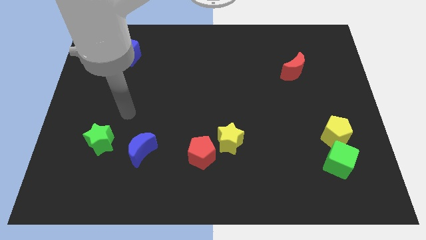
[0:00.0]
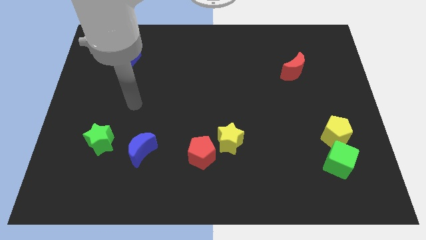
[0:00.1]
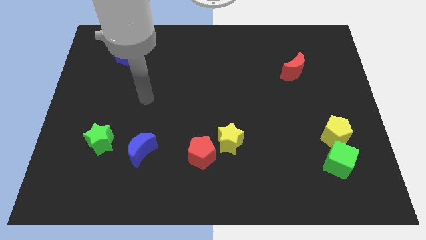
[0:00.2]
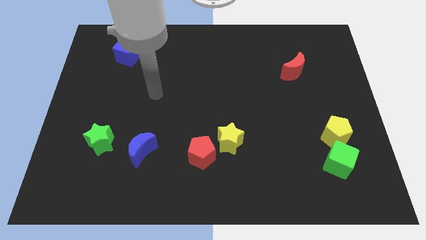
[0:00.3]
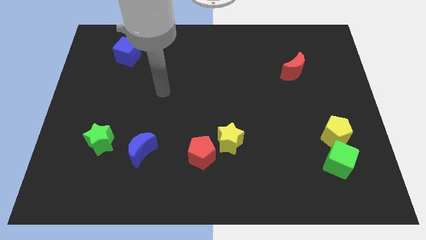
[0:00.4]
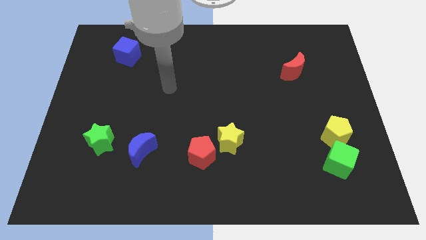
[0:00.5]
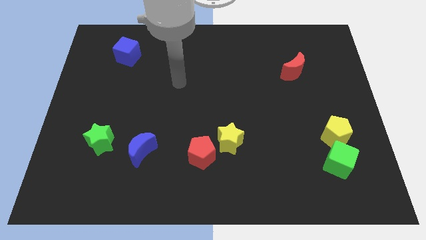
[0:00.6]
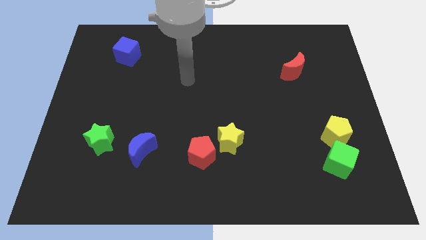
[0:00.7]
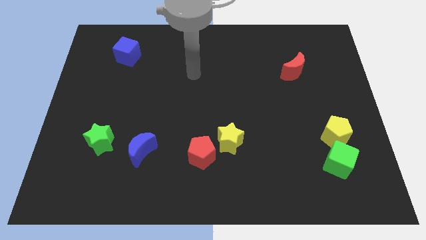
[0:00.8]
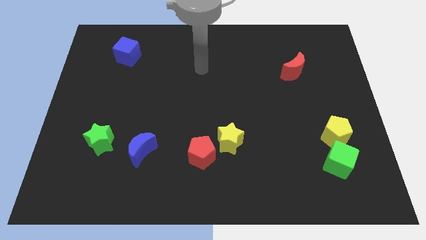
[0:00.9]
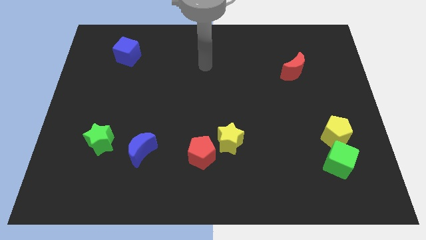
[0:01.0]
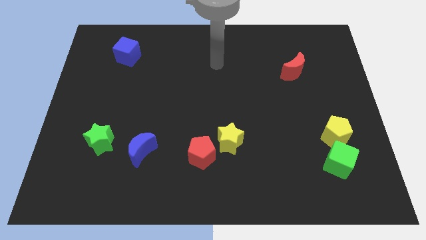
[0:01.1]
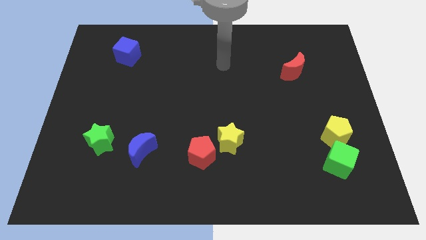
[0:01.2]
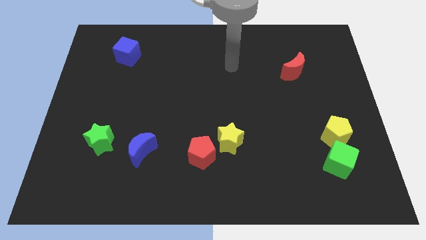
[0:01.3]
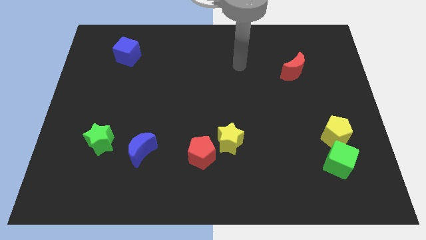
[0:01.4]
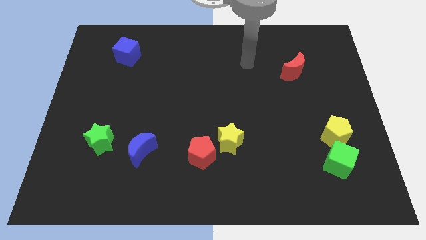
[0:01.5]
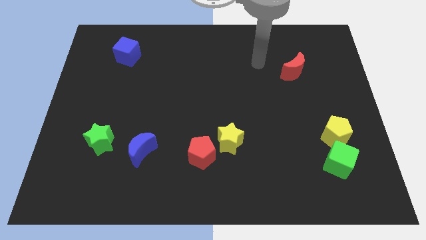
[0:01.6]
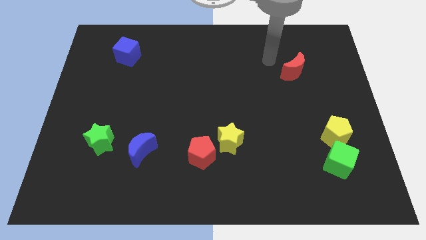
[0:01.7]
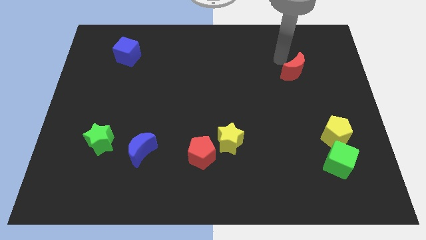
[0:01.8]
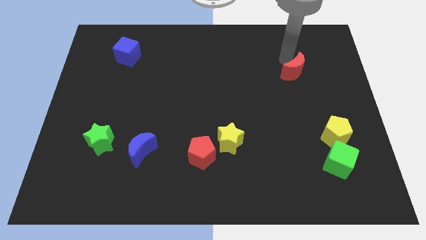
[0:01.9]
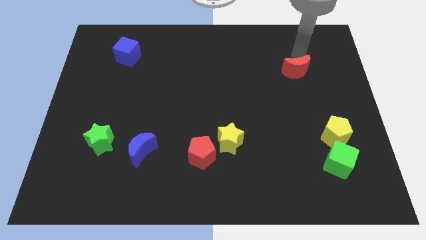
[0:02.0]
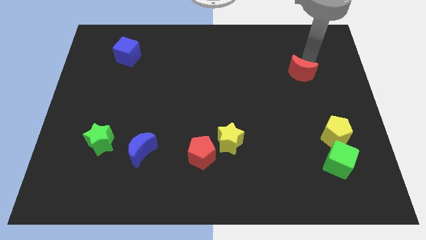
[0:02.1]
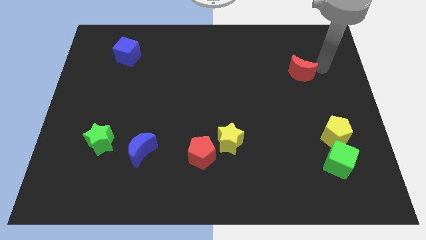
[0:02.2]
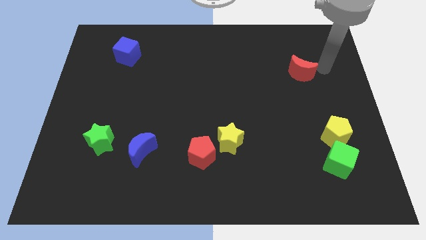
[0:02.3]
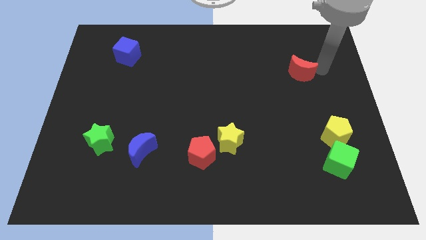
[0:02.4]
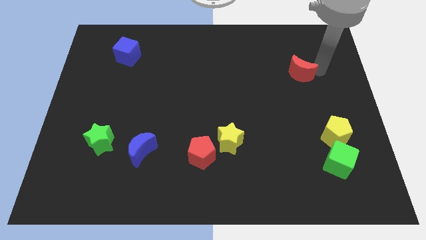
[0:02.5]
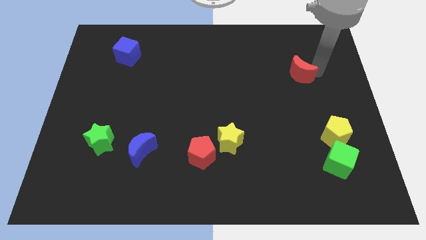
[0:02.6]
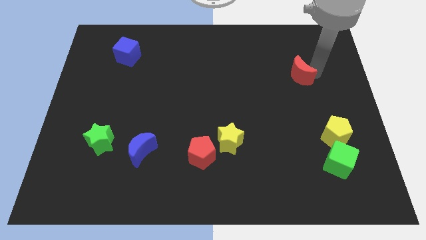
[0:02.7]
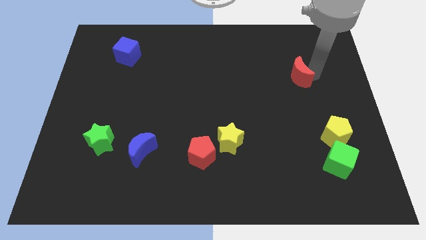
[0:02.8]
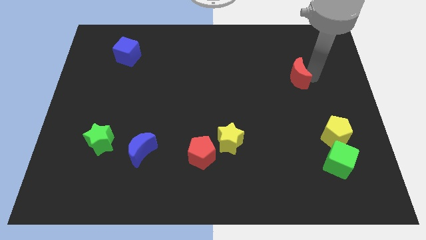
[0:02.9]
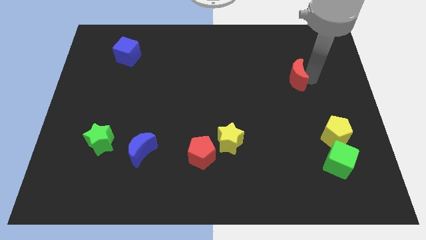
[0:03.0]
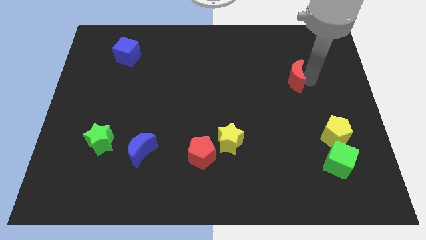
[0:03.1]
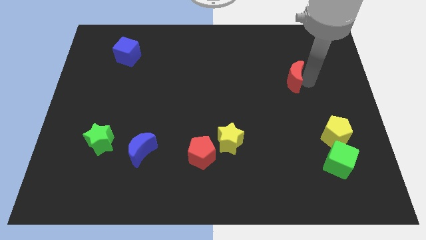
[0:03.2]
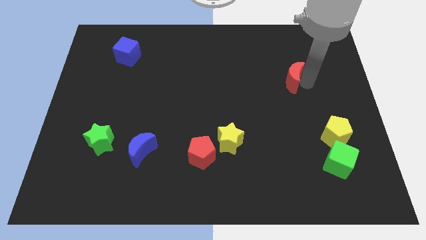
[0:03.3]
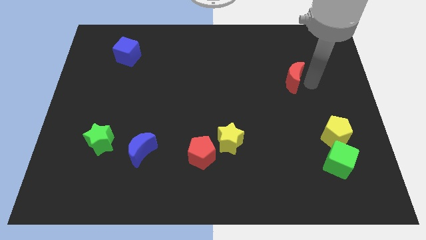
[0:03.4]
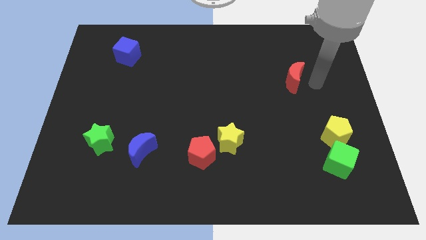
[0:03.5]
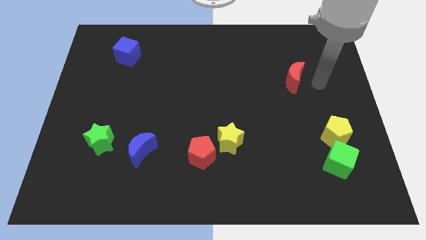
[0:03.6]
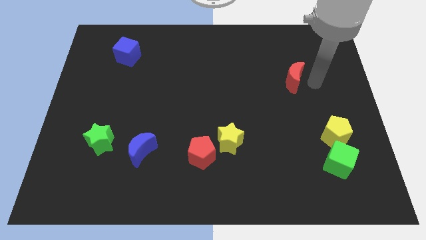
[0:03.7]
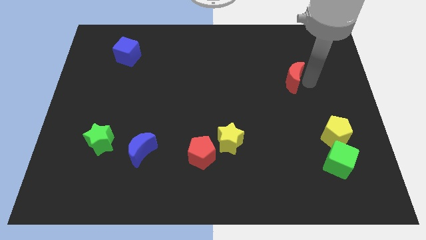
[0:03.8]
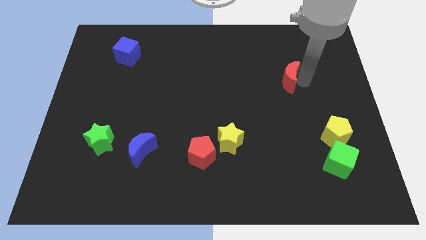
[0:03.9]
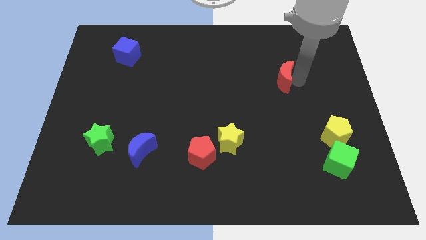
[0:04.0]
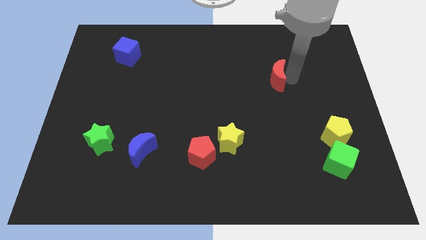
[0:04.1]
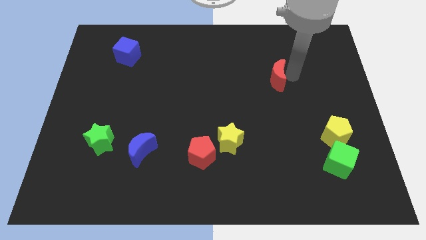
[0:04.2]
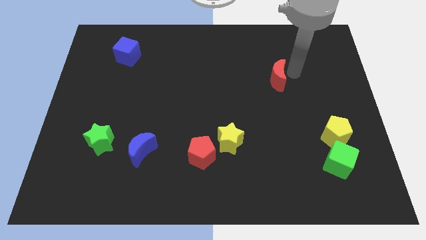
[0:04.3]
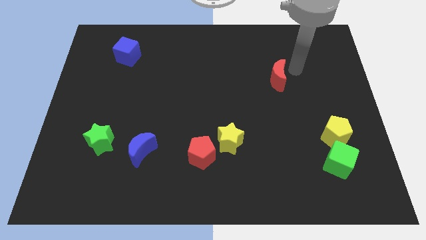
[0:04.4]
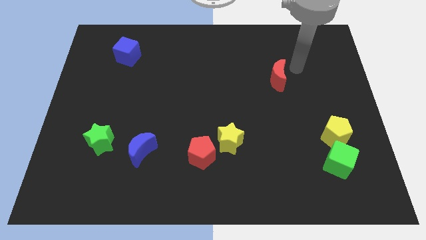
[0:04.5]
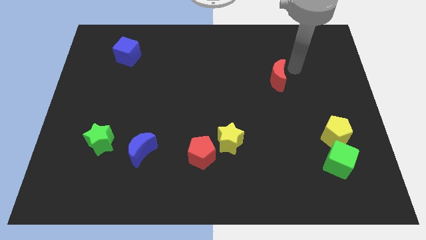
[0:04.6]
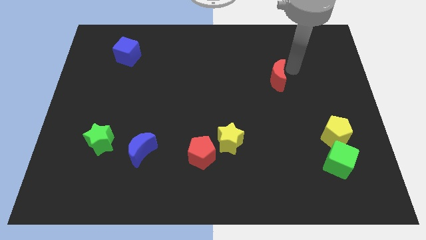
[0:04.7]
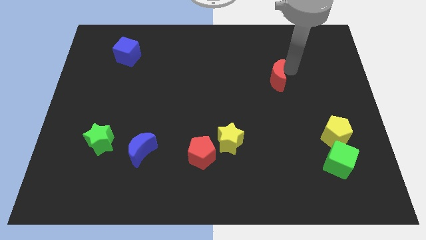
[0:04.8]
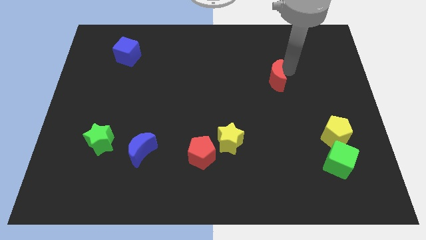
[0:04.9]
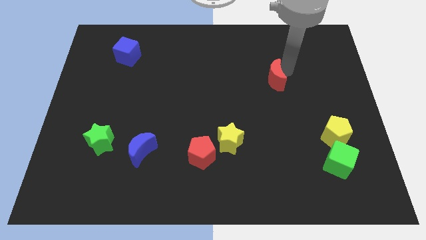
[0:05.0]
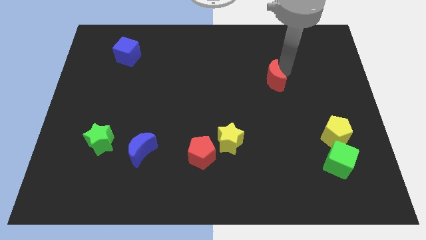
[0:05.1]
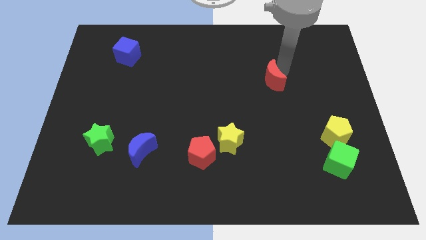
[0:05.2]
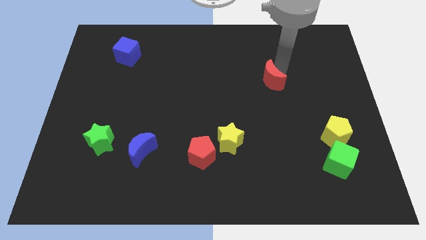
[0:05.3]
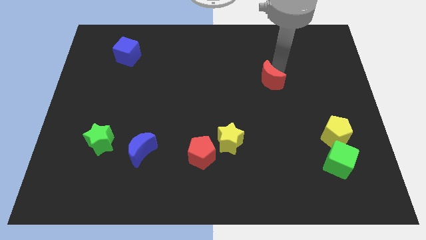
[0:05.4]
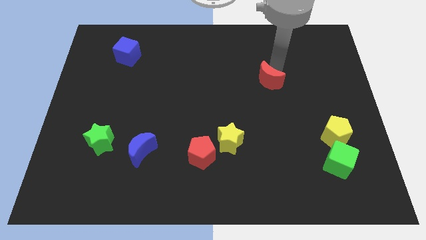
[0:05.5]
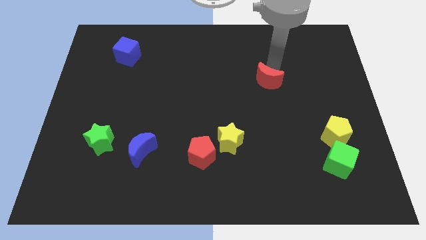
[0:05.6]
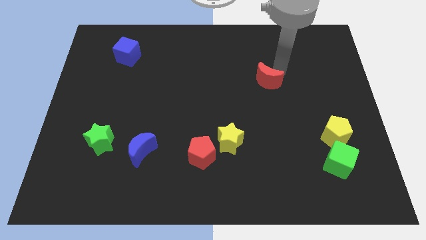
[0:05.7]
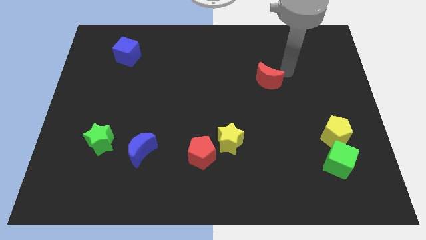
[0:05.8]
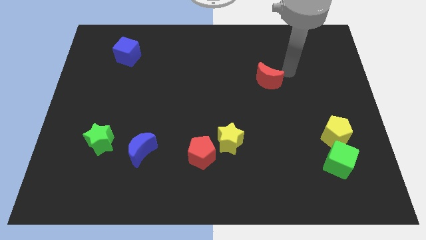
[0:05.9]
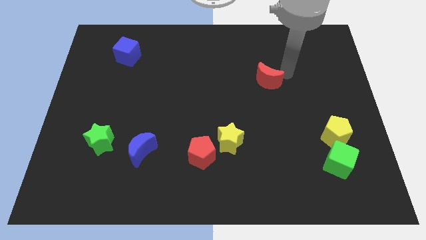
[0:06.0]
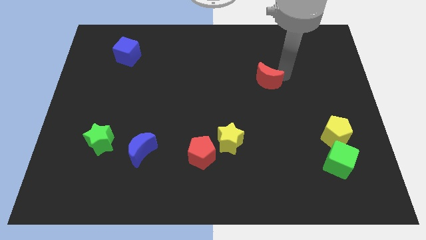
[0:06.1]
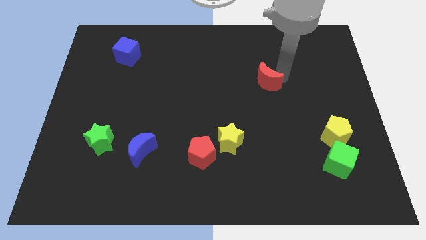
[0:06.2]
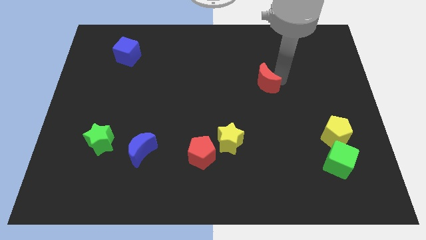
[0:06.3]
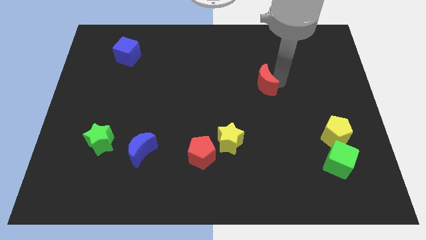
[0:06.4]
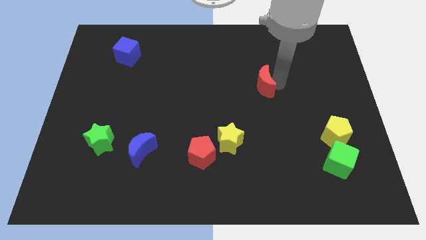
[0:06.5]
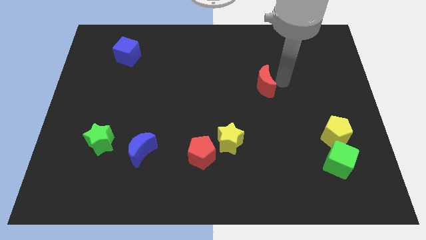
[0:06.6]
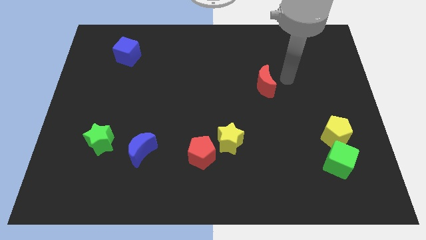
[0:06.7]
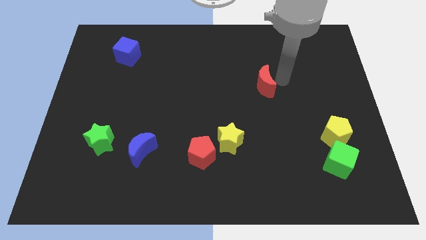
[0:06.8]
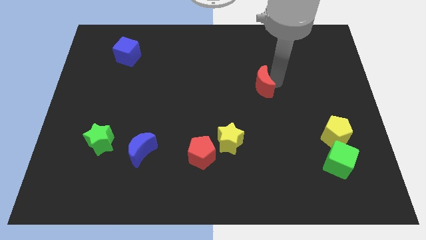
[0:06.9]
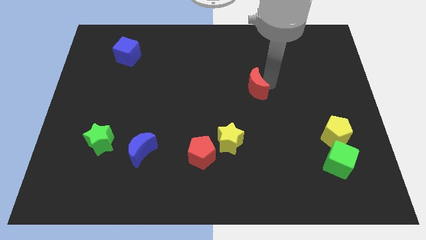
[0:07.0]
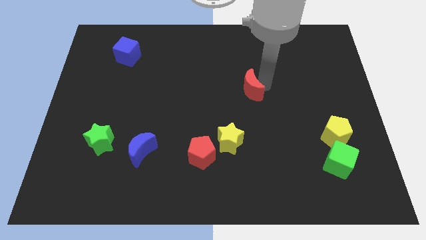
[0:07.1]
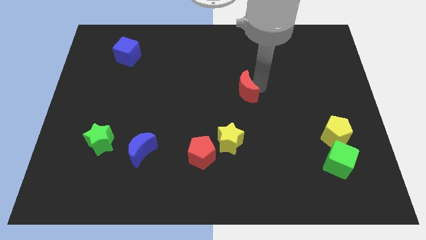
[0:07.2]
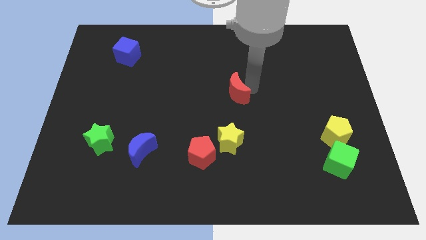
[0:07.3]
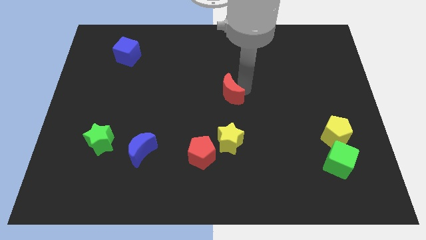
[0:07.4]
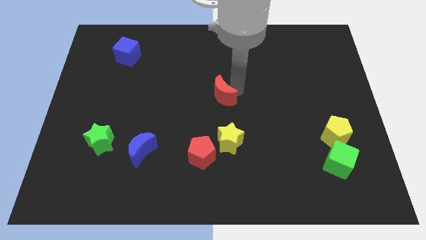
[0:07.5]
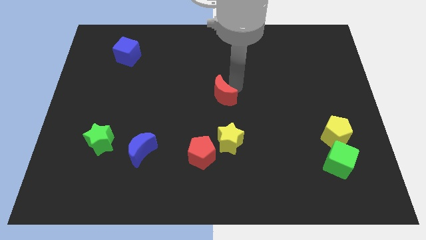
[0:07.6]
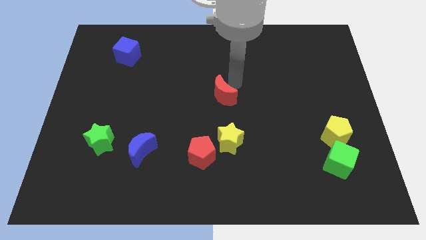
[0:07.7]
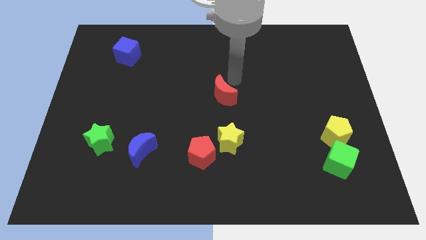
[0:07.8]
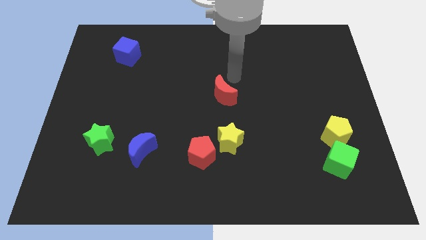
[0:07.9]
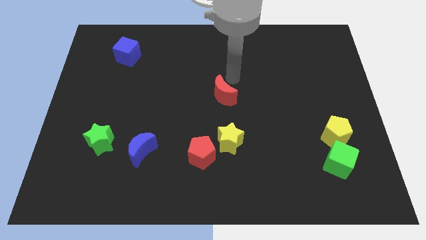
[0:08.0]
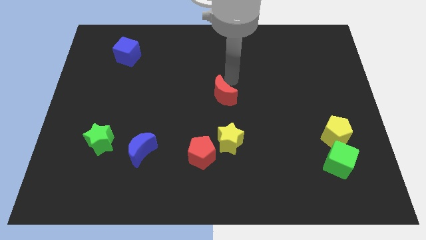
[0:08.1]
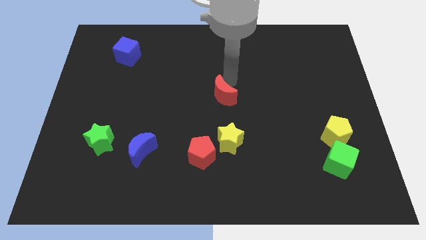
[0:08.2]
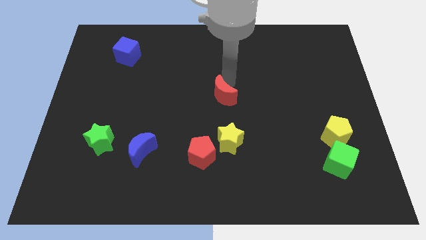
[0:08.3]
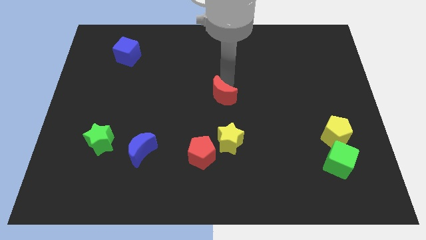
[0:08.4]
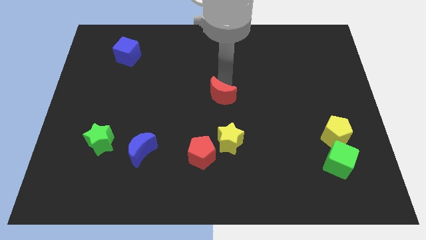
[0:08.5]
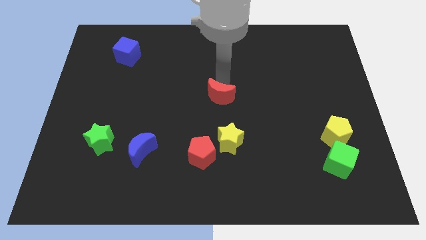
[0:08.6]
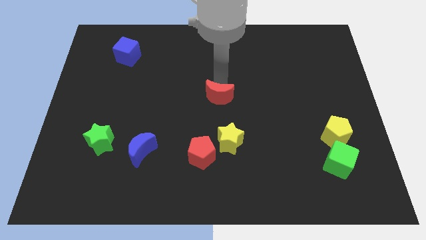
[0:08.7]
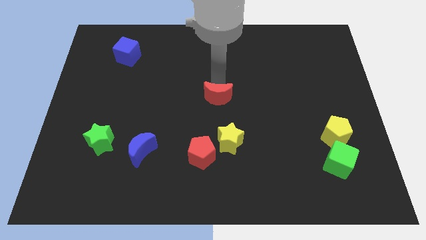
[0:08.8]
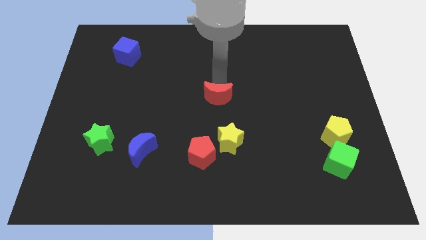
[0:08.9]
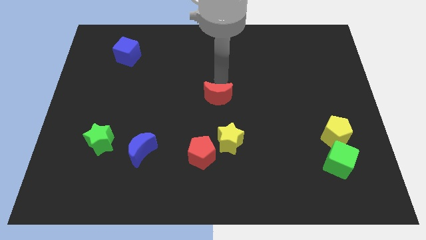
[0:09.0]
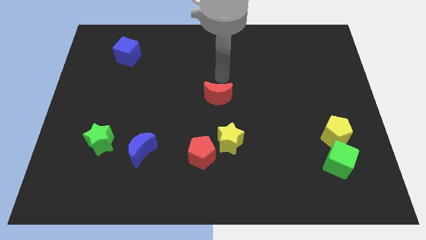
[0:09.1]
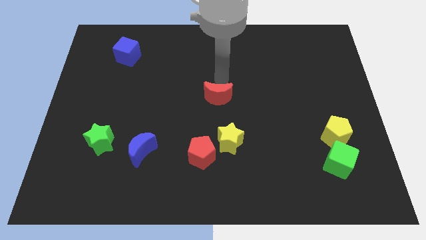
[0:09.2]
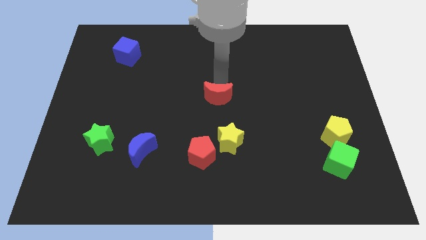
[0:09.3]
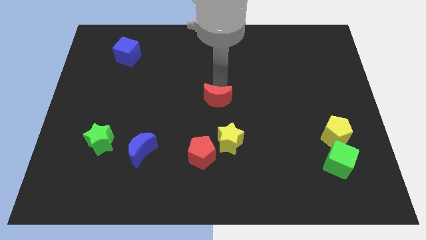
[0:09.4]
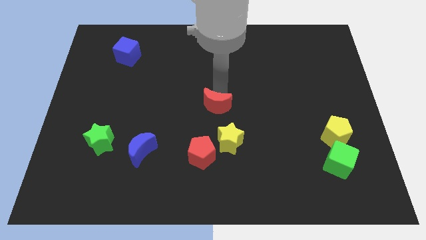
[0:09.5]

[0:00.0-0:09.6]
push the red moon to the top of the red pentagon
